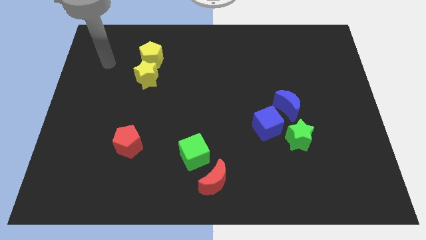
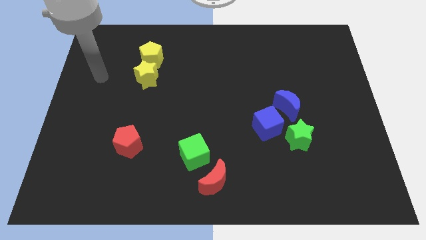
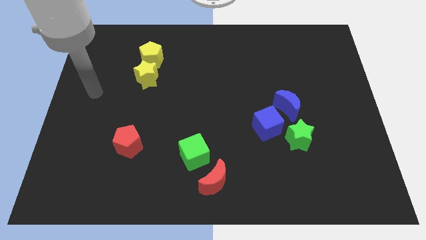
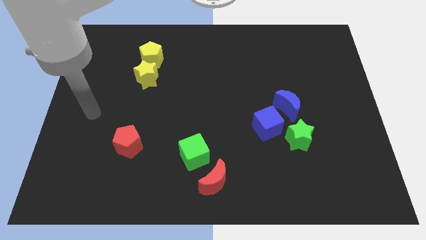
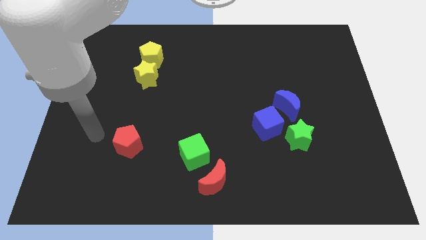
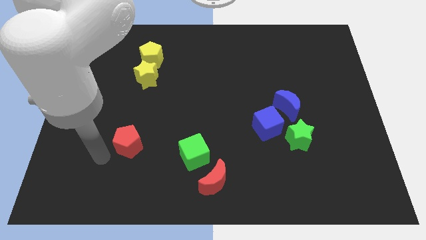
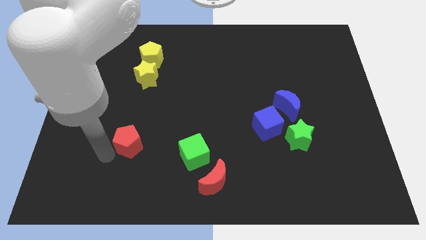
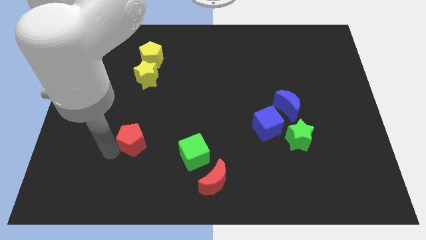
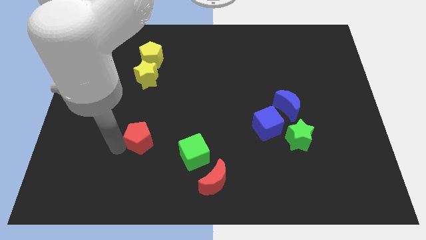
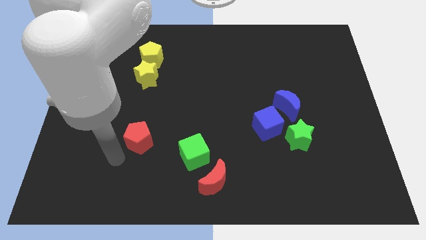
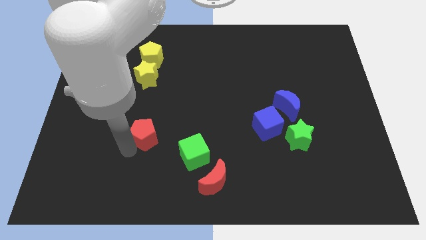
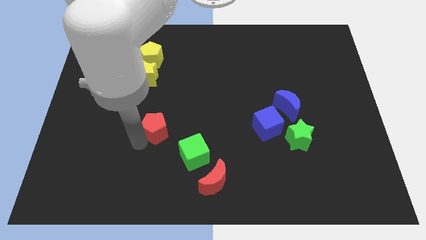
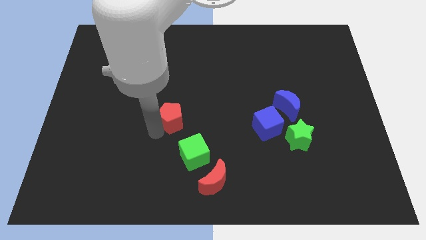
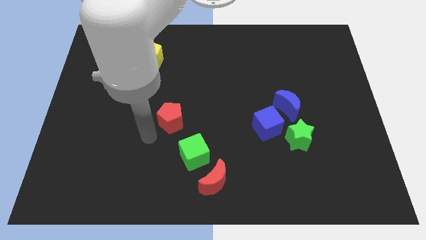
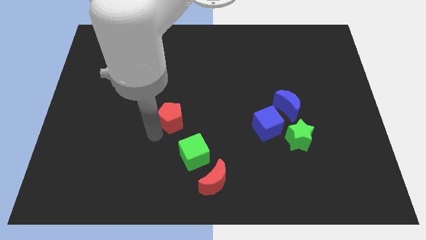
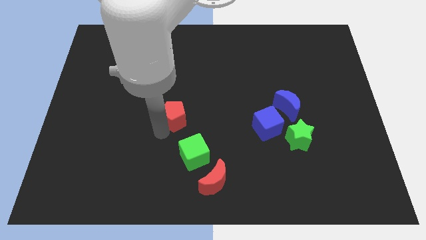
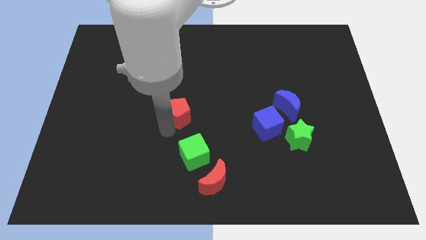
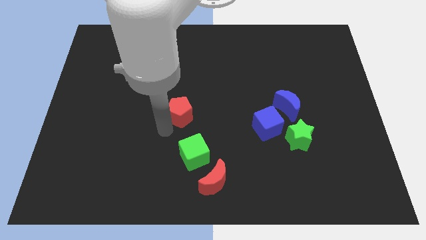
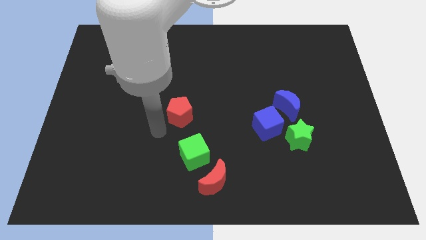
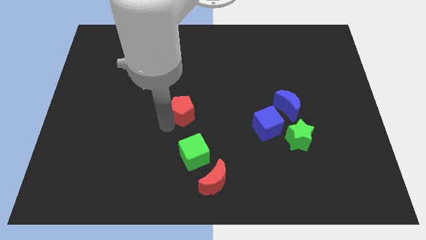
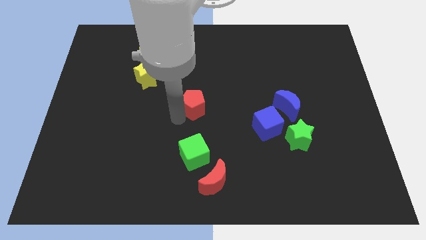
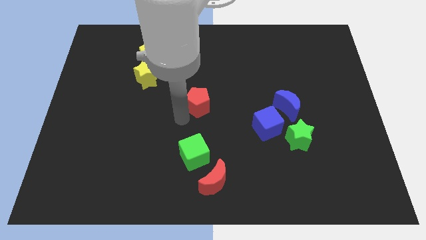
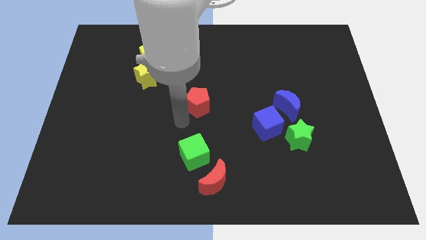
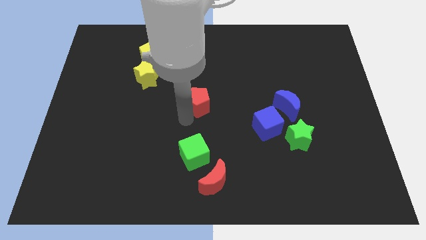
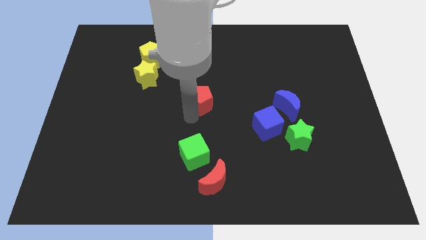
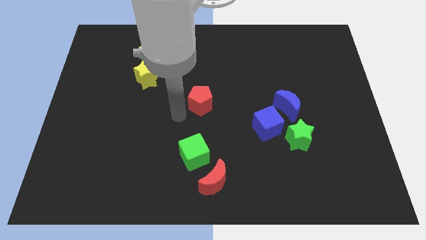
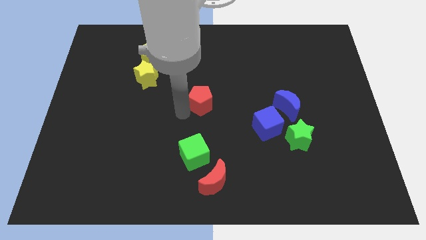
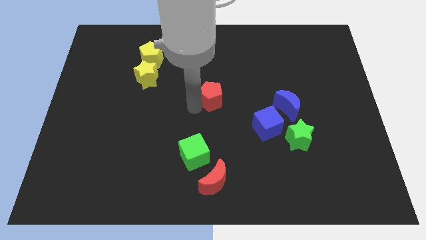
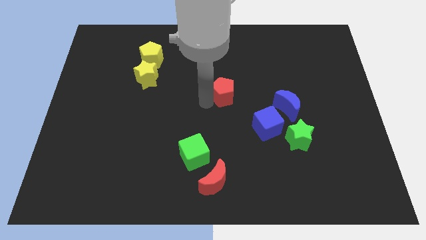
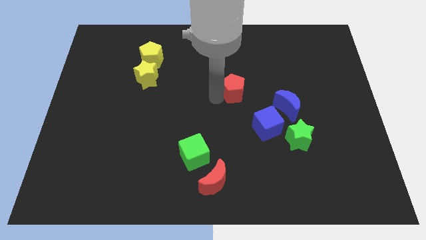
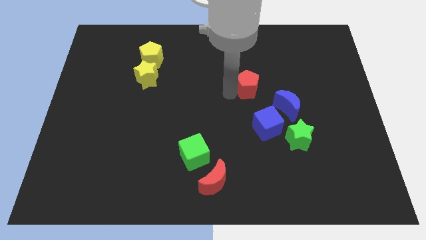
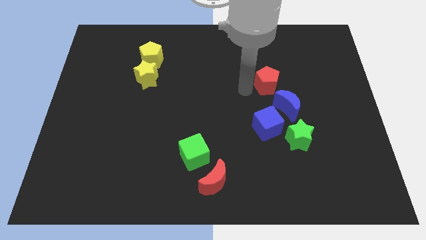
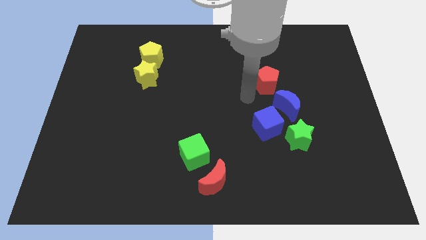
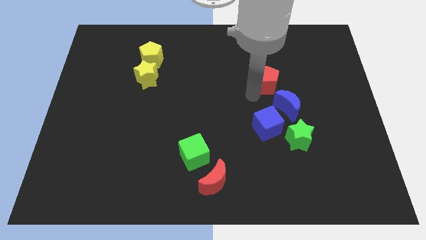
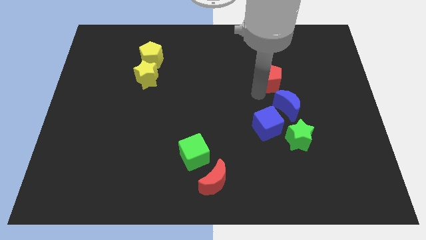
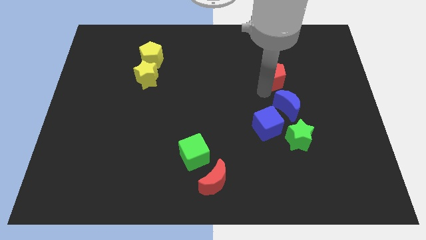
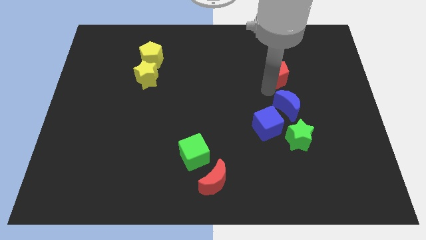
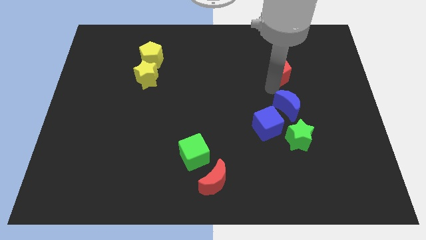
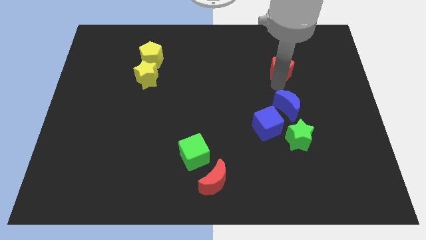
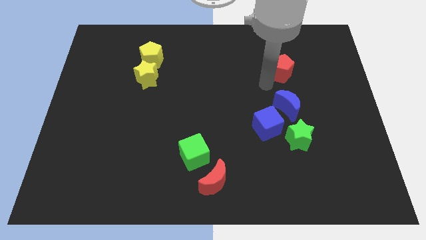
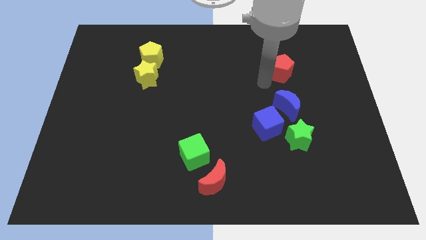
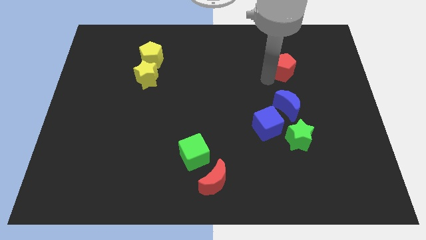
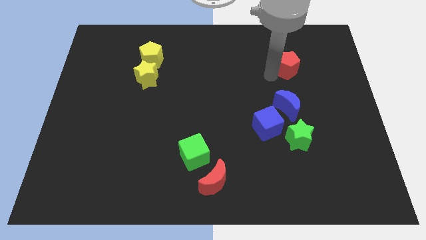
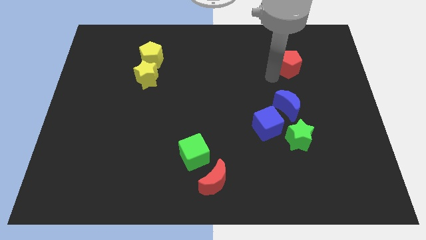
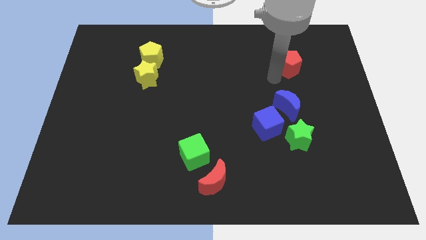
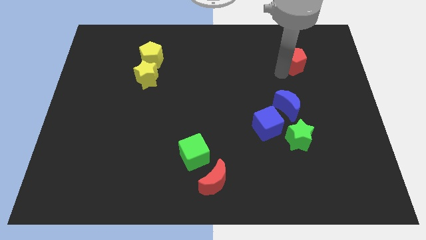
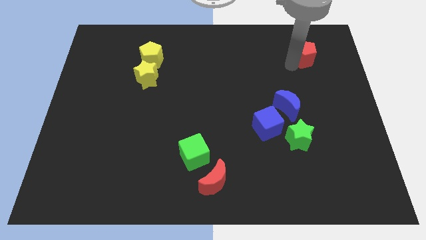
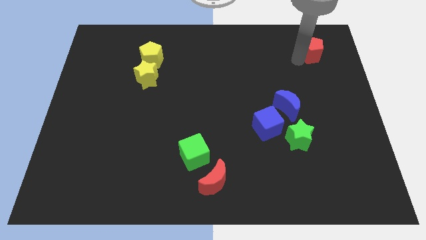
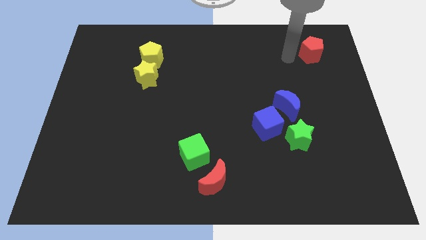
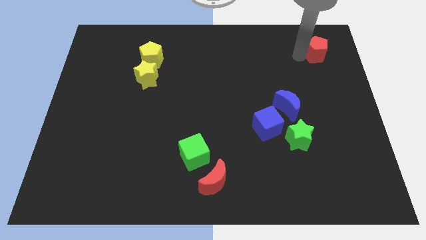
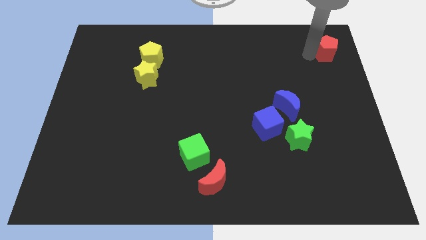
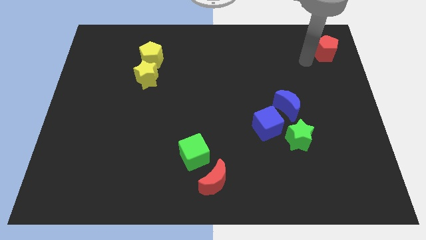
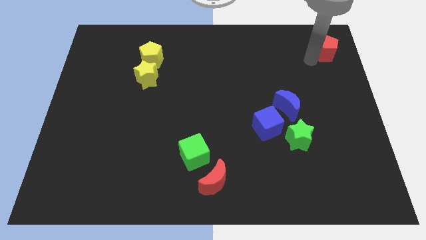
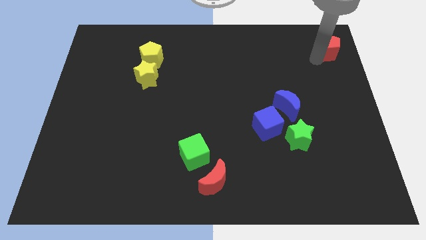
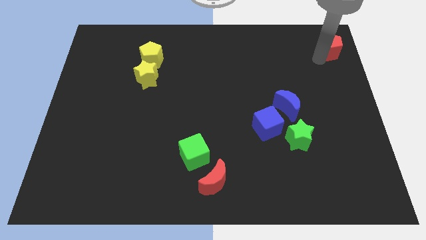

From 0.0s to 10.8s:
put the red pentagon to the upper right corner
